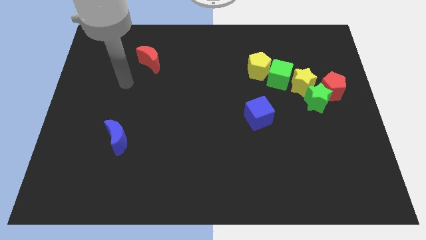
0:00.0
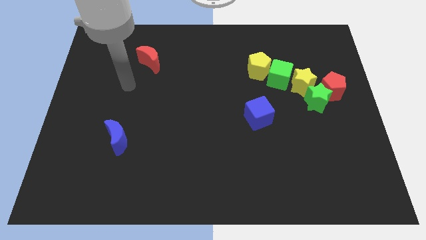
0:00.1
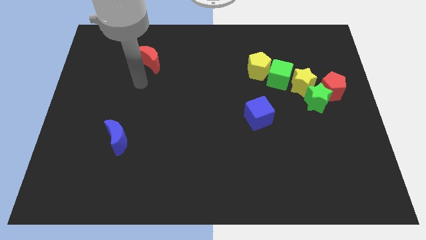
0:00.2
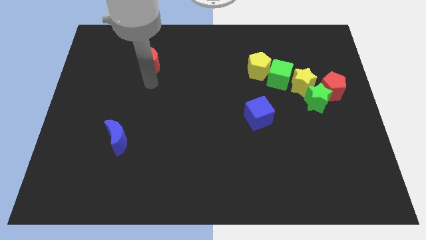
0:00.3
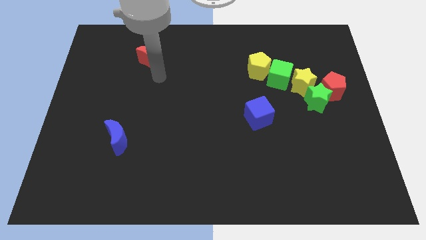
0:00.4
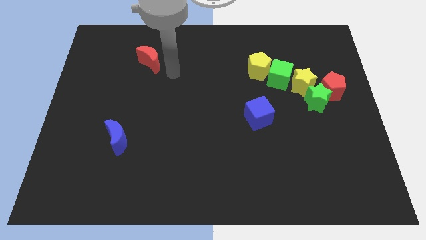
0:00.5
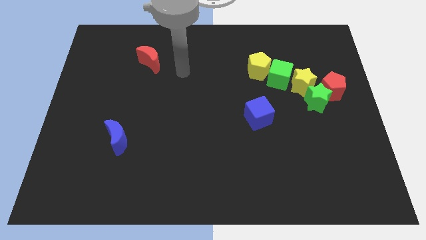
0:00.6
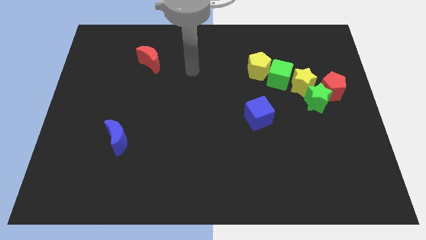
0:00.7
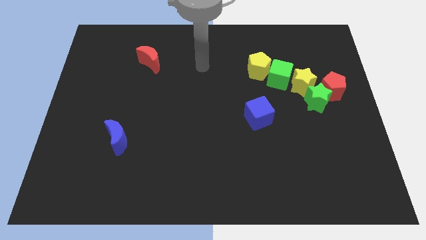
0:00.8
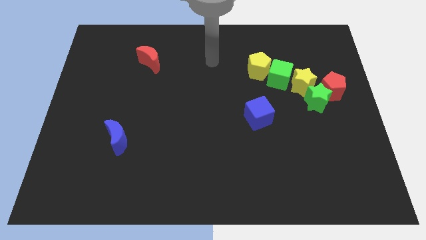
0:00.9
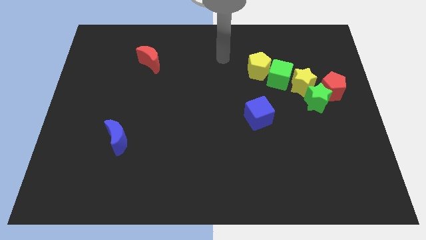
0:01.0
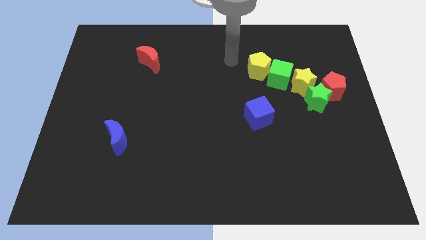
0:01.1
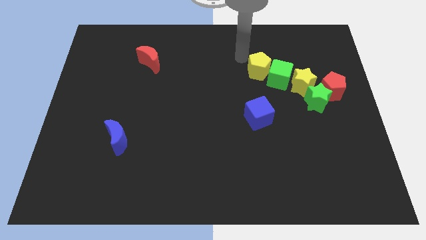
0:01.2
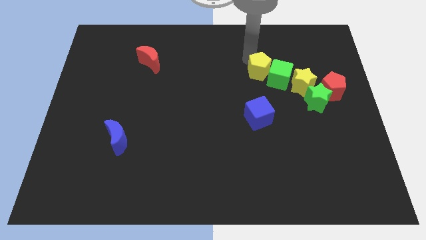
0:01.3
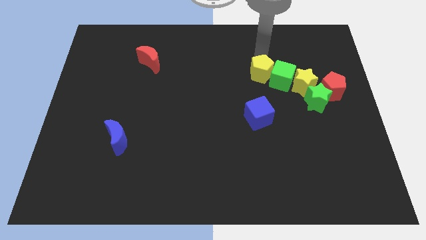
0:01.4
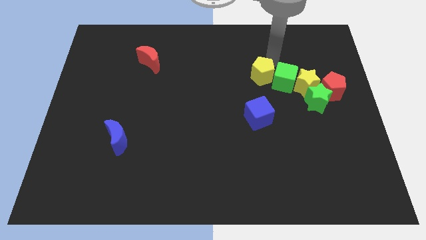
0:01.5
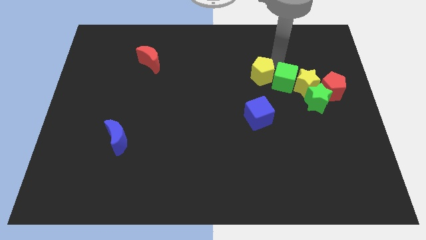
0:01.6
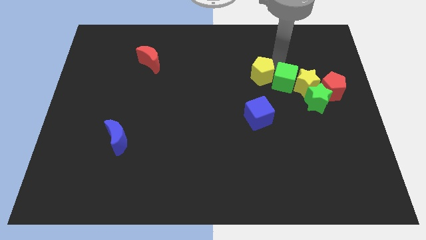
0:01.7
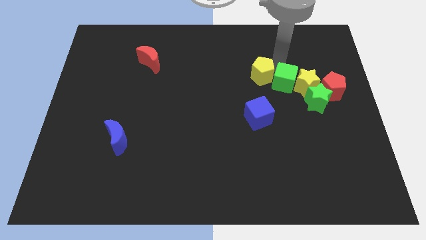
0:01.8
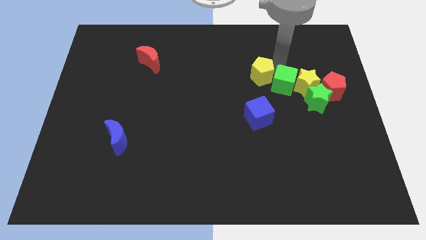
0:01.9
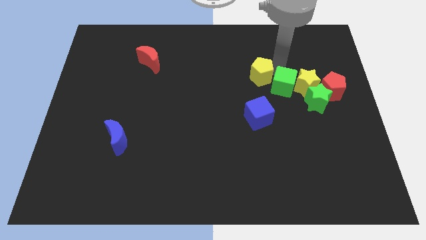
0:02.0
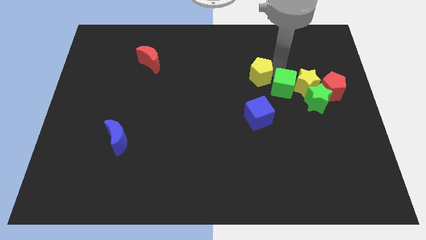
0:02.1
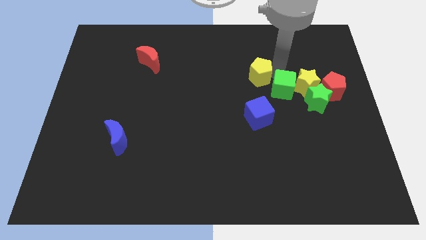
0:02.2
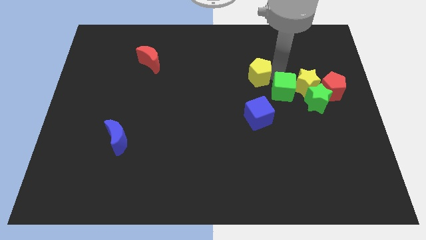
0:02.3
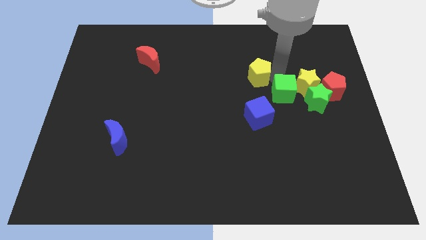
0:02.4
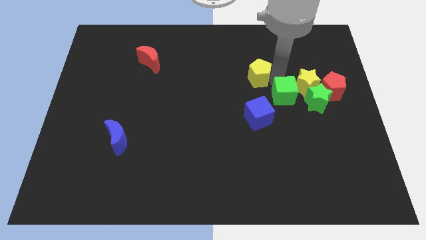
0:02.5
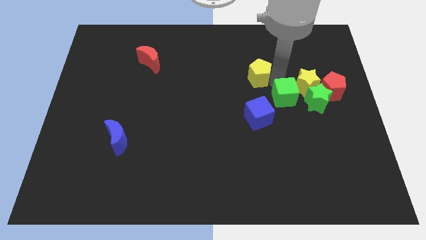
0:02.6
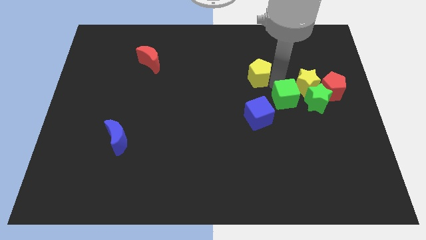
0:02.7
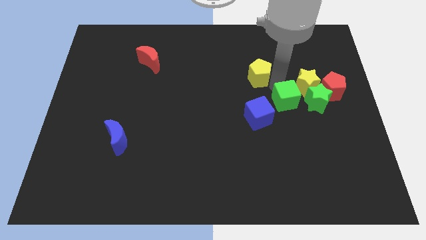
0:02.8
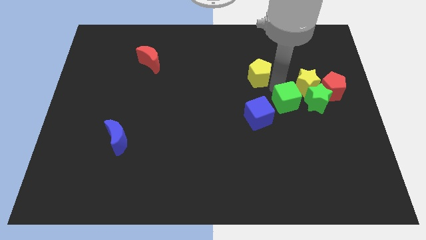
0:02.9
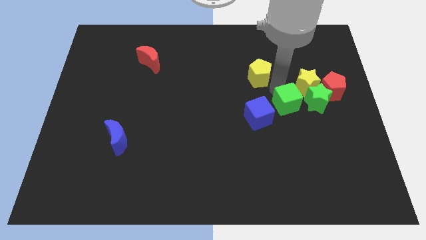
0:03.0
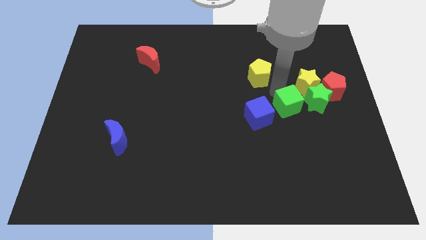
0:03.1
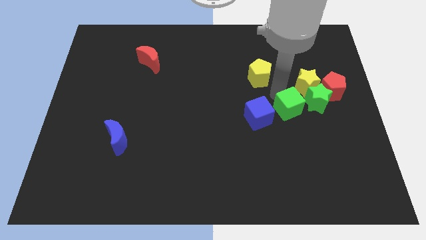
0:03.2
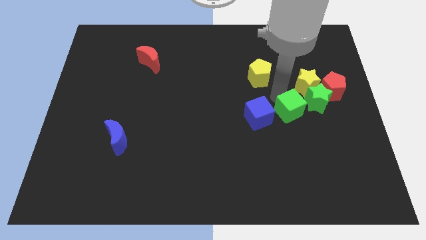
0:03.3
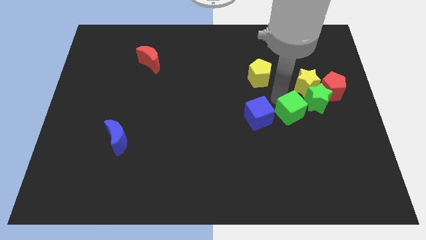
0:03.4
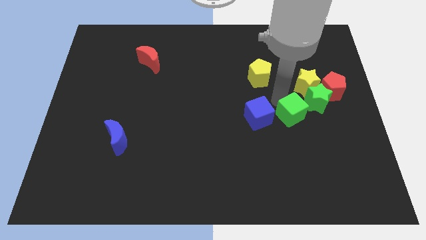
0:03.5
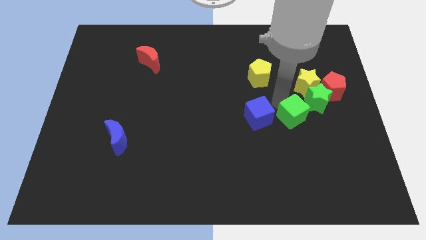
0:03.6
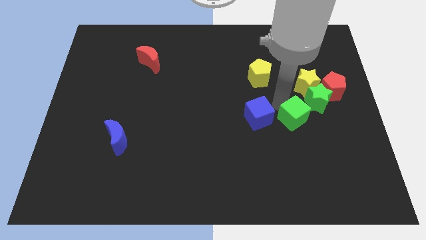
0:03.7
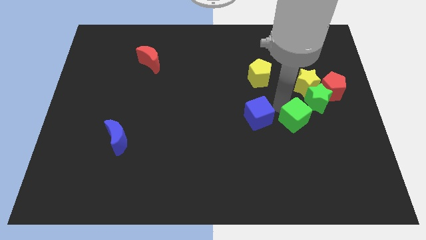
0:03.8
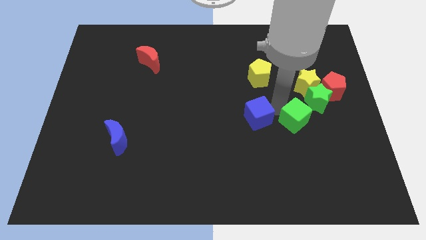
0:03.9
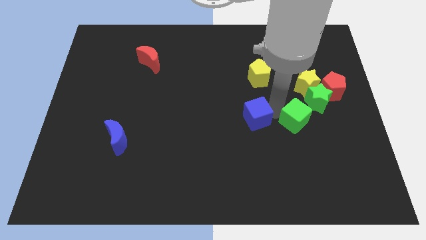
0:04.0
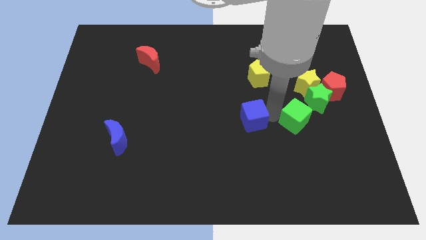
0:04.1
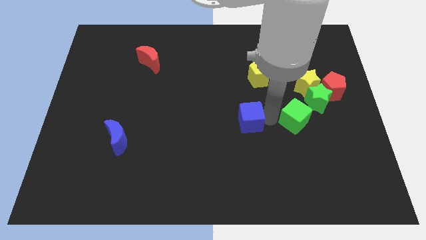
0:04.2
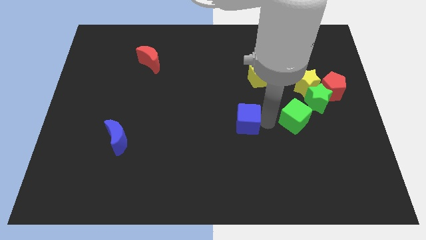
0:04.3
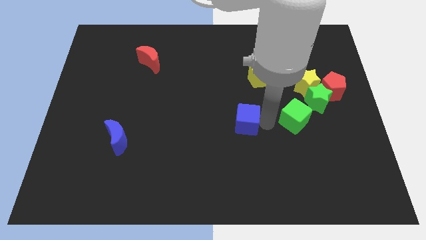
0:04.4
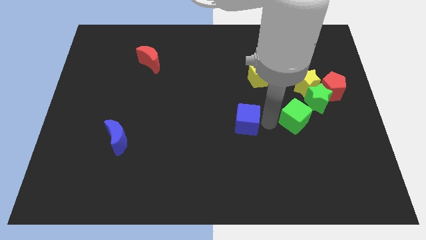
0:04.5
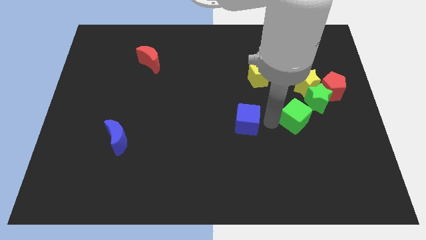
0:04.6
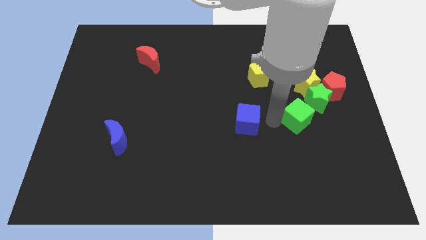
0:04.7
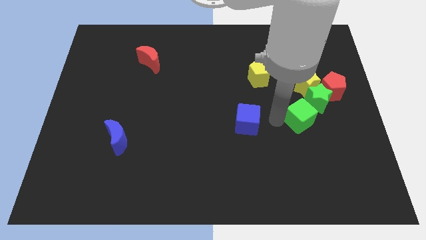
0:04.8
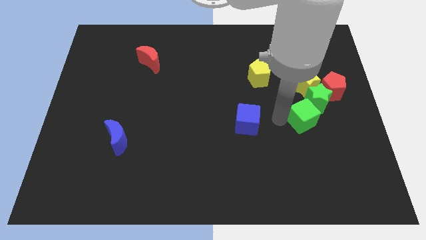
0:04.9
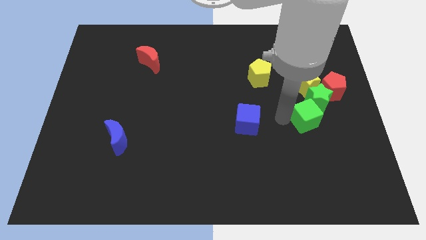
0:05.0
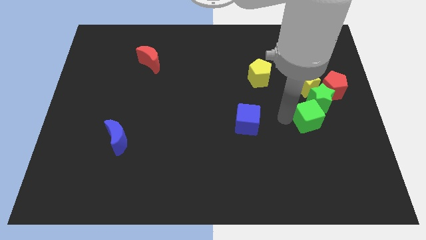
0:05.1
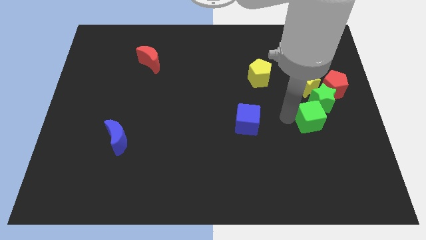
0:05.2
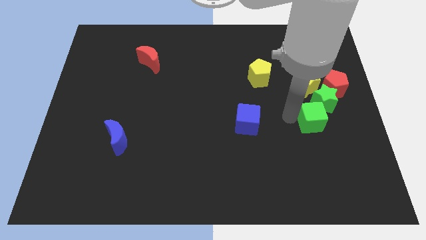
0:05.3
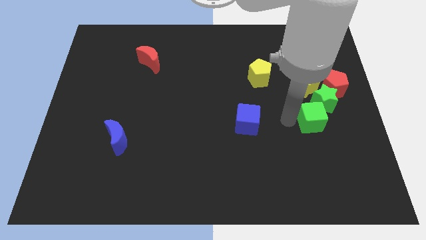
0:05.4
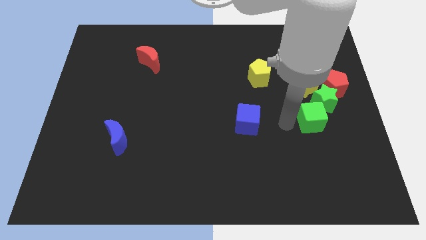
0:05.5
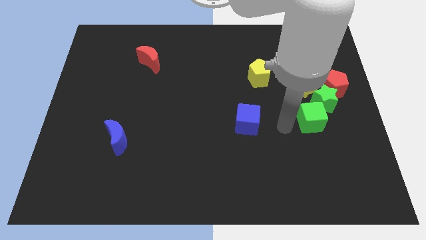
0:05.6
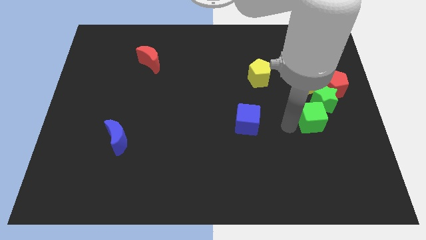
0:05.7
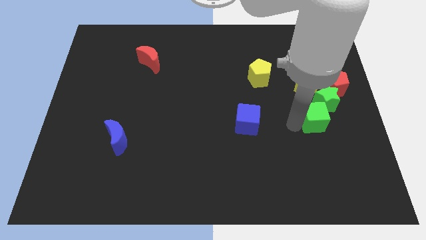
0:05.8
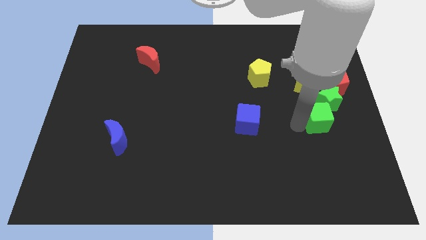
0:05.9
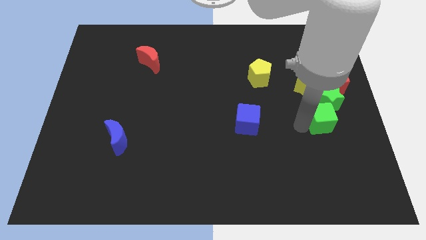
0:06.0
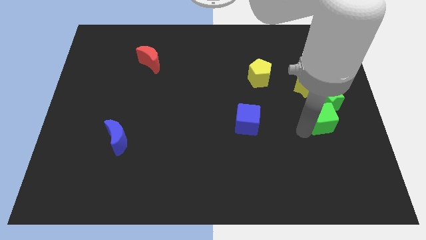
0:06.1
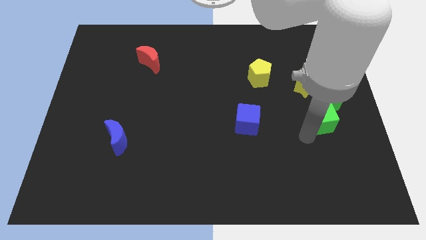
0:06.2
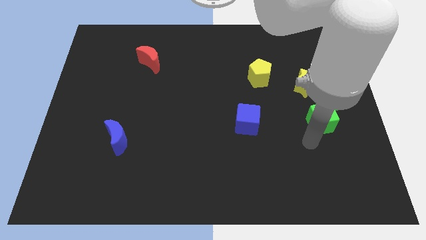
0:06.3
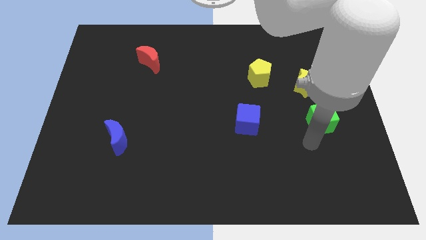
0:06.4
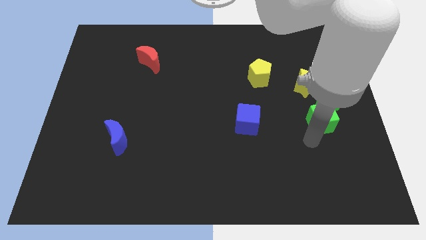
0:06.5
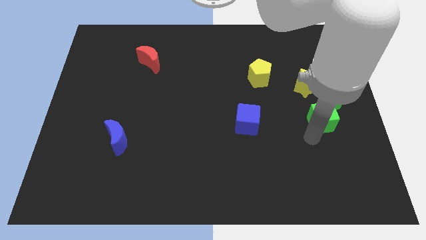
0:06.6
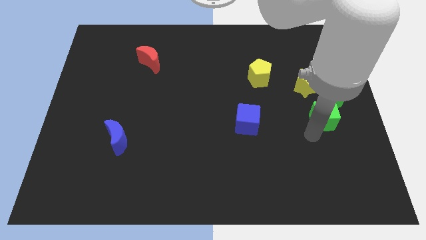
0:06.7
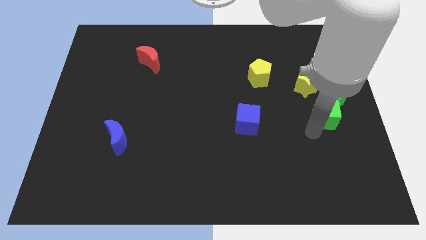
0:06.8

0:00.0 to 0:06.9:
push the green cube to the bottom right side of the yellow star
